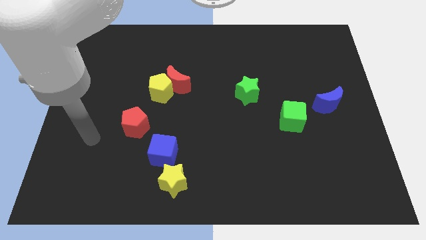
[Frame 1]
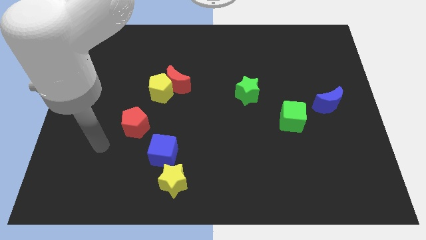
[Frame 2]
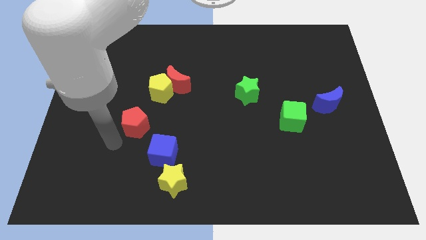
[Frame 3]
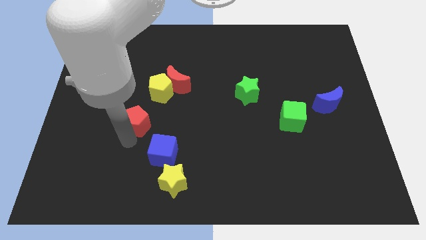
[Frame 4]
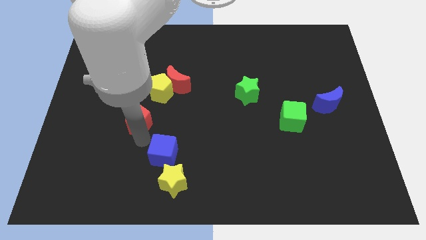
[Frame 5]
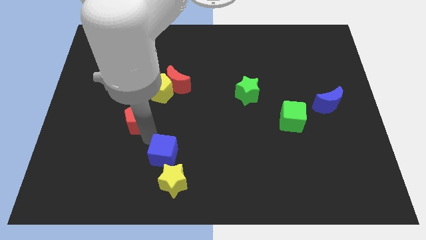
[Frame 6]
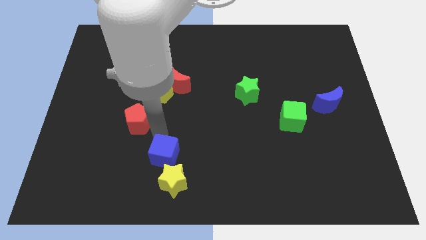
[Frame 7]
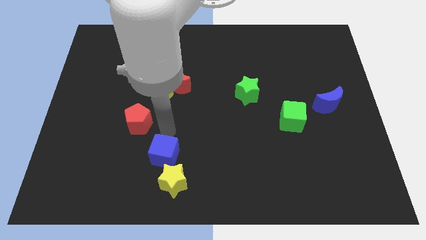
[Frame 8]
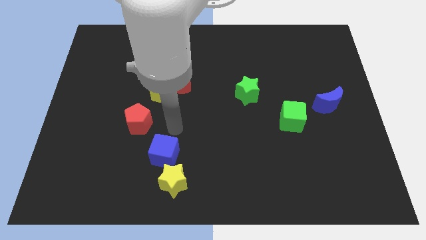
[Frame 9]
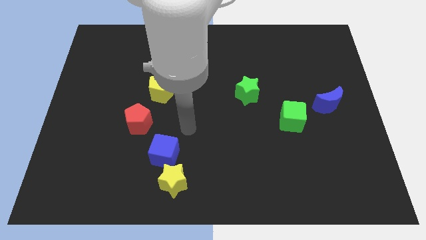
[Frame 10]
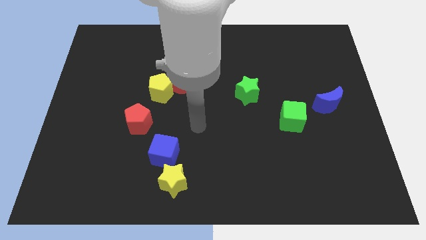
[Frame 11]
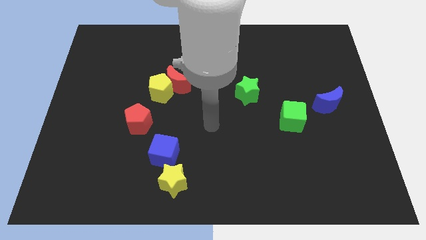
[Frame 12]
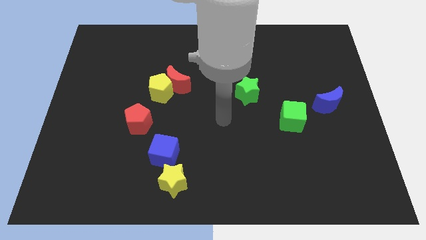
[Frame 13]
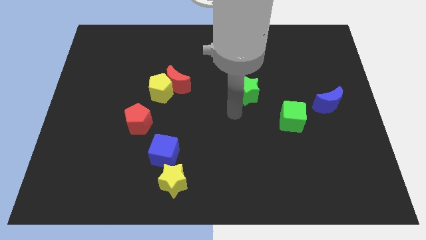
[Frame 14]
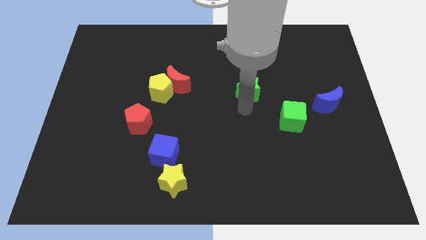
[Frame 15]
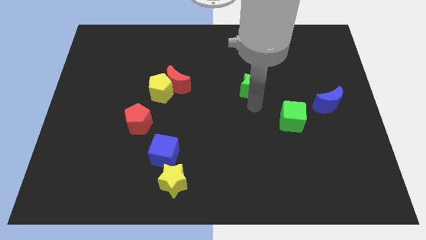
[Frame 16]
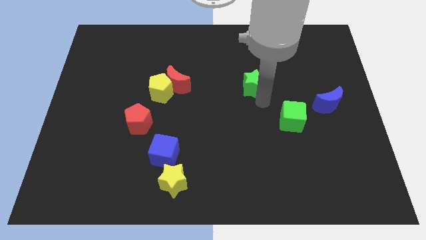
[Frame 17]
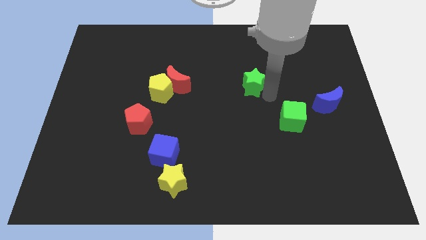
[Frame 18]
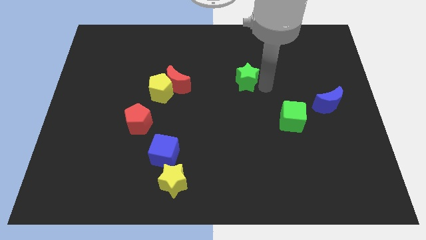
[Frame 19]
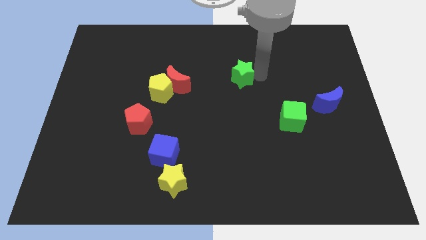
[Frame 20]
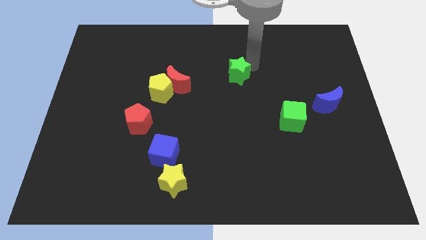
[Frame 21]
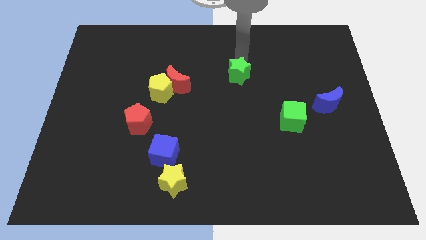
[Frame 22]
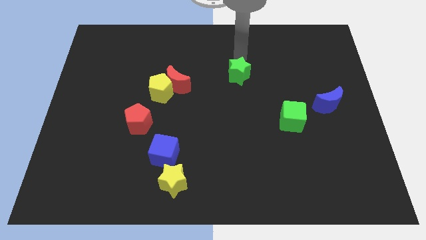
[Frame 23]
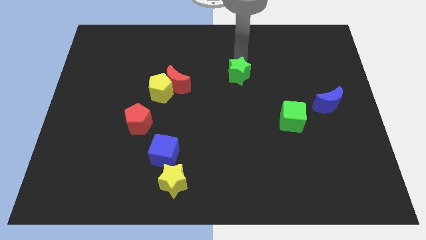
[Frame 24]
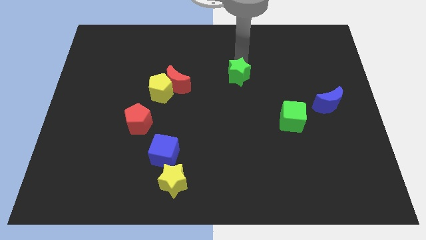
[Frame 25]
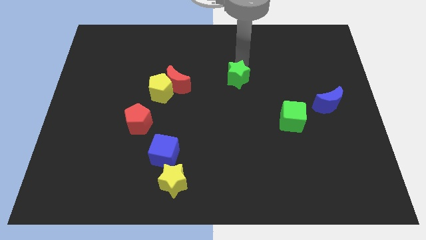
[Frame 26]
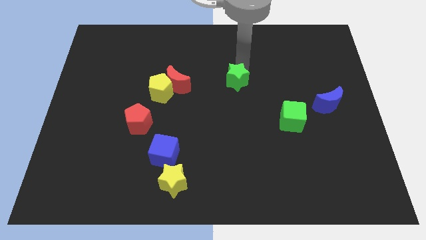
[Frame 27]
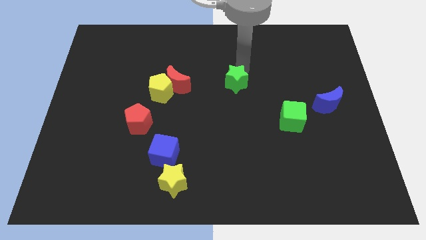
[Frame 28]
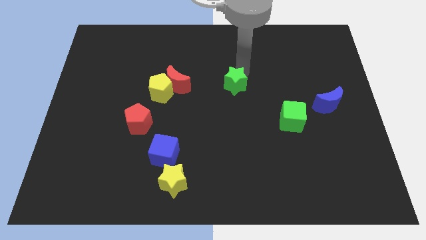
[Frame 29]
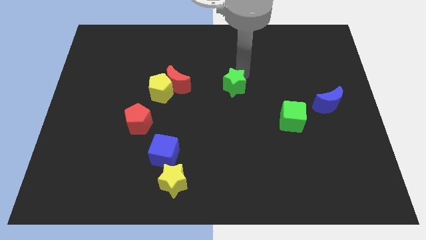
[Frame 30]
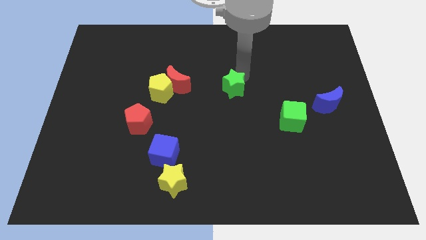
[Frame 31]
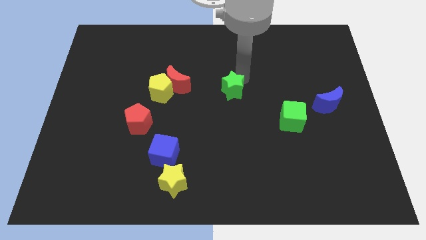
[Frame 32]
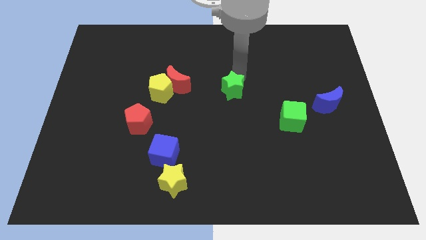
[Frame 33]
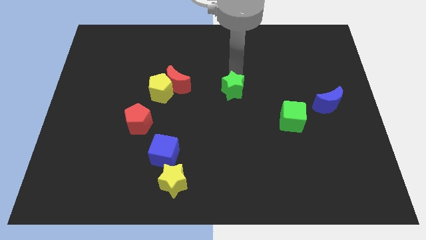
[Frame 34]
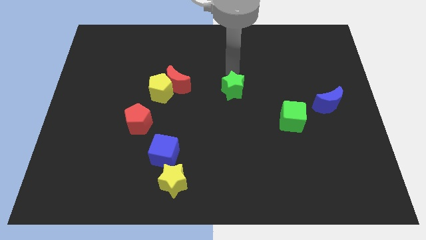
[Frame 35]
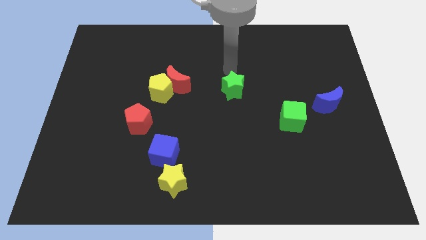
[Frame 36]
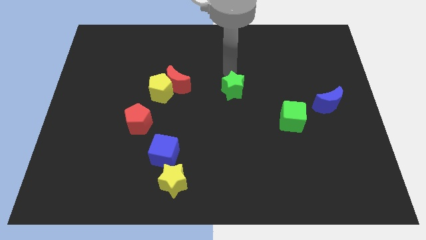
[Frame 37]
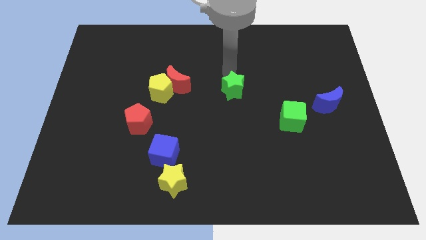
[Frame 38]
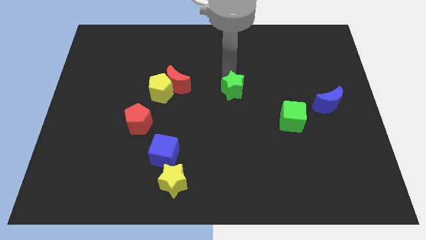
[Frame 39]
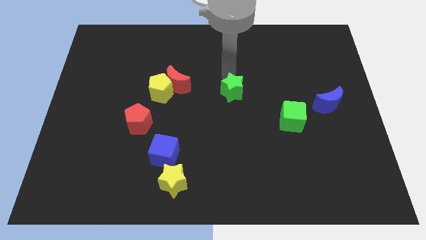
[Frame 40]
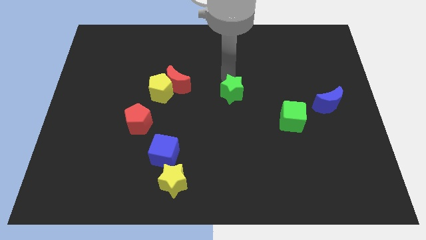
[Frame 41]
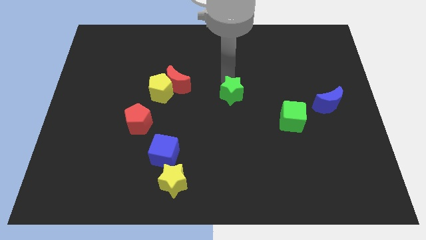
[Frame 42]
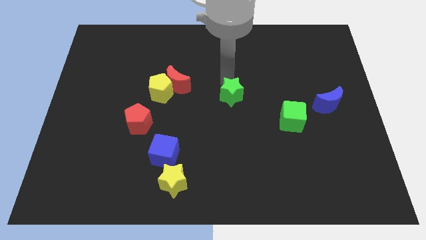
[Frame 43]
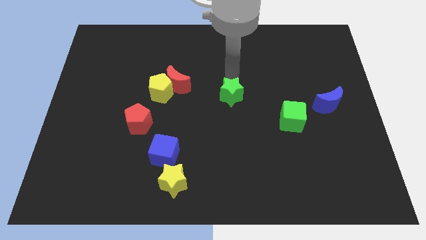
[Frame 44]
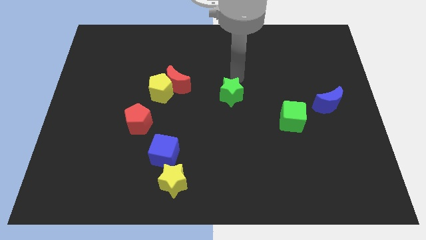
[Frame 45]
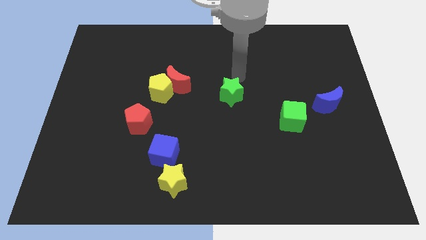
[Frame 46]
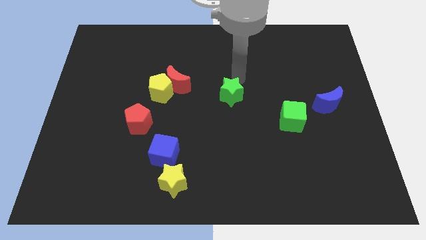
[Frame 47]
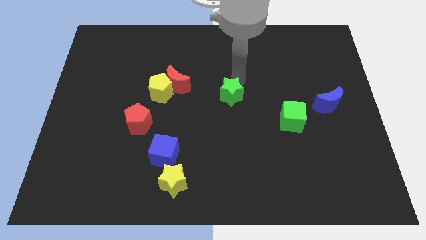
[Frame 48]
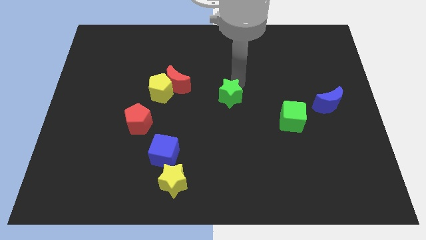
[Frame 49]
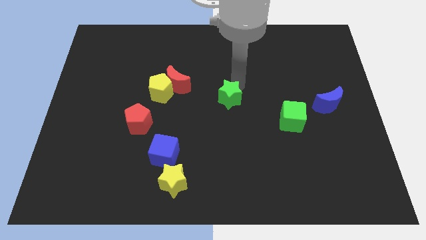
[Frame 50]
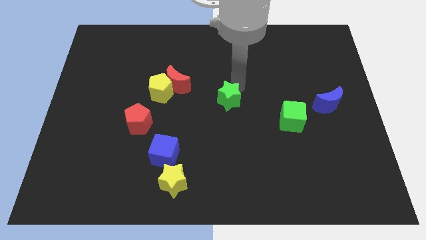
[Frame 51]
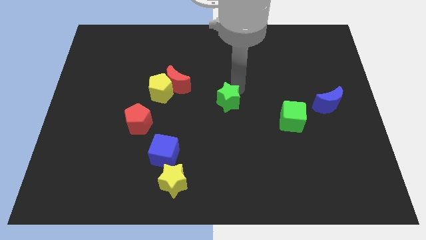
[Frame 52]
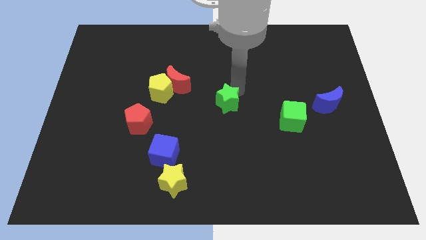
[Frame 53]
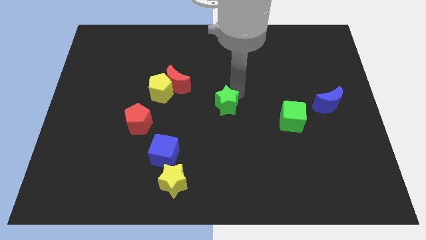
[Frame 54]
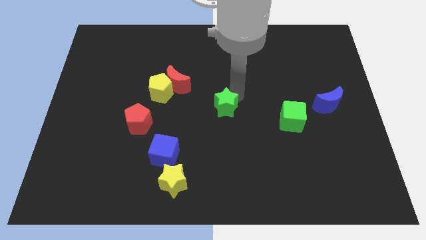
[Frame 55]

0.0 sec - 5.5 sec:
push the green star down and to the left a little

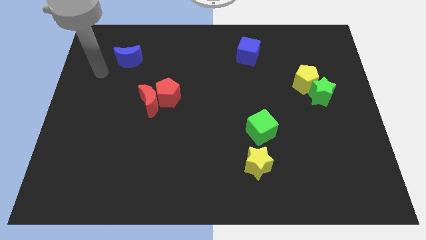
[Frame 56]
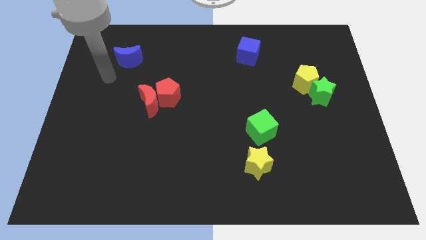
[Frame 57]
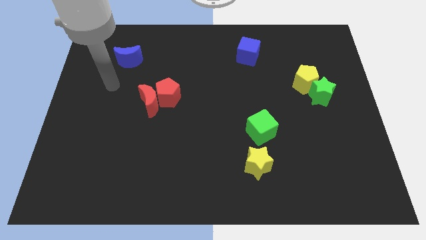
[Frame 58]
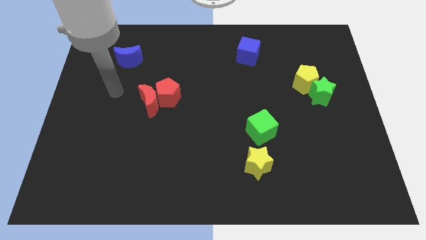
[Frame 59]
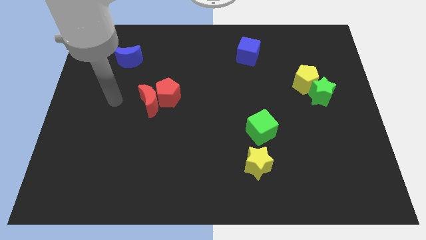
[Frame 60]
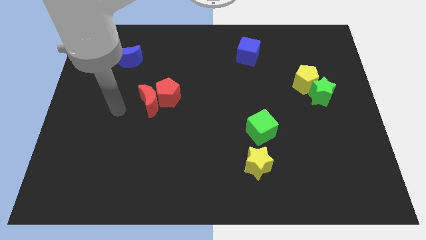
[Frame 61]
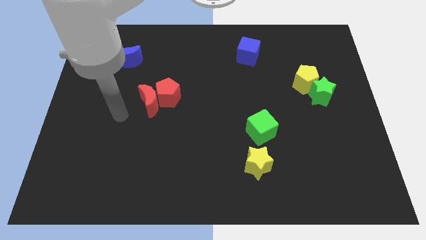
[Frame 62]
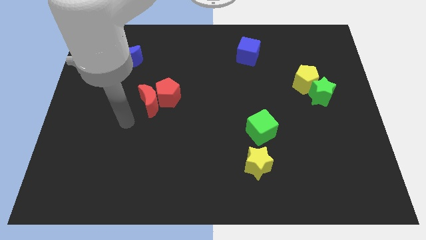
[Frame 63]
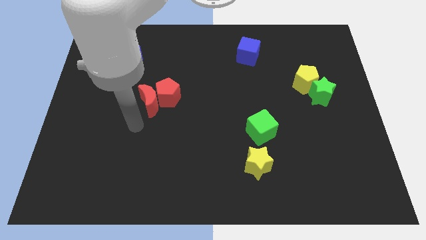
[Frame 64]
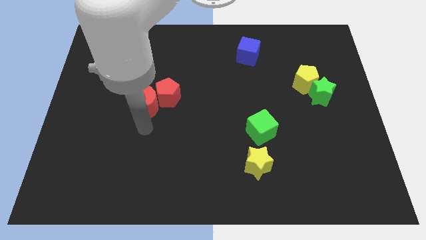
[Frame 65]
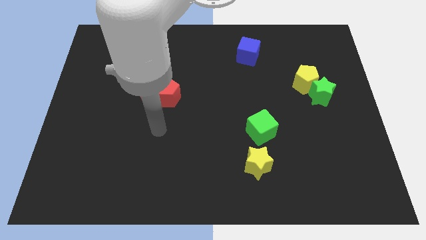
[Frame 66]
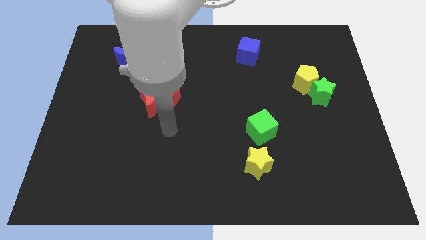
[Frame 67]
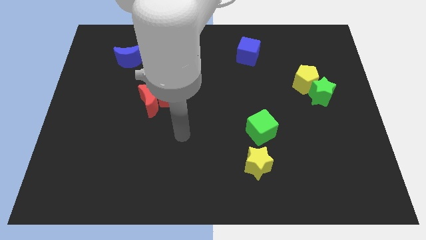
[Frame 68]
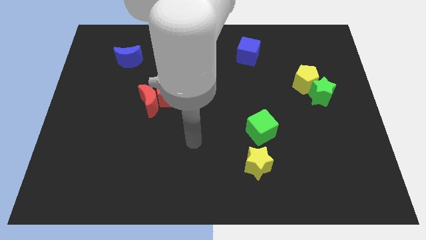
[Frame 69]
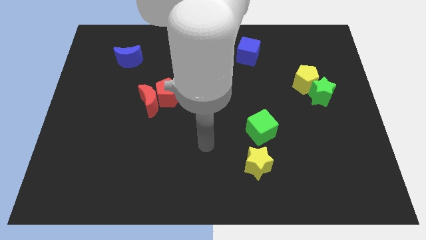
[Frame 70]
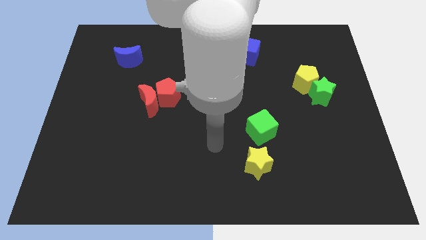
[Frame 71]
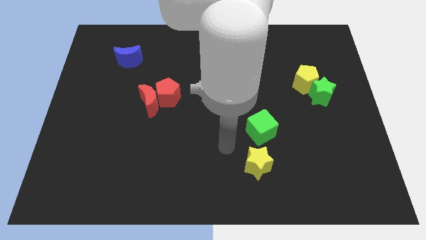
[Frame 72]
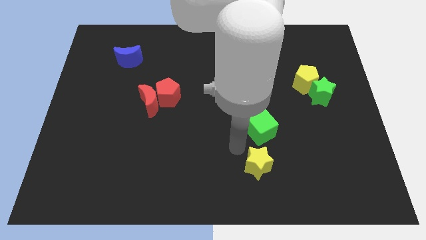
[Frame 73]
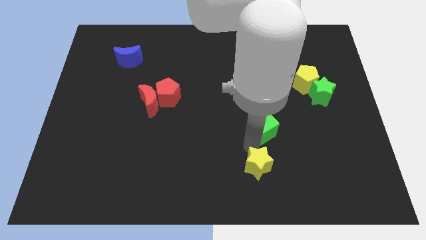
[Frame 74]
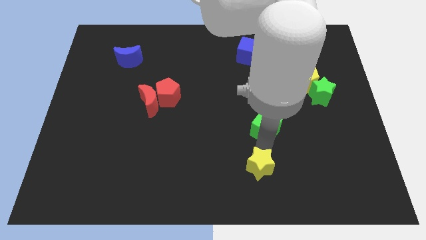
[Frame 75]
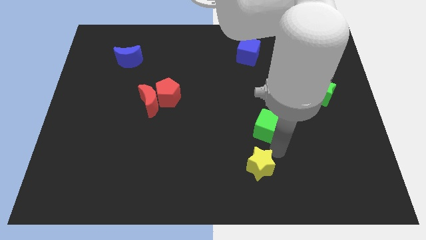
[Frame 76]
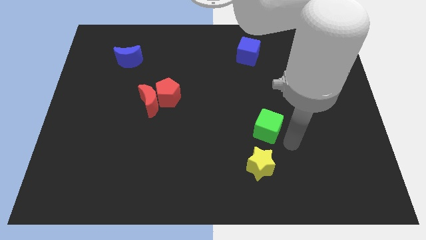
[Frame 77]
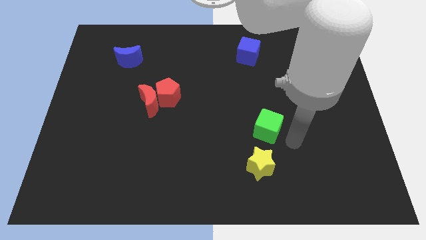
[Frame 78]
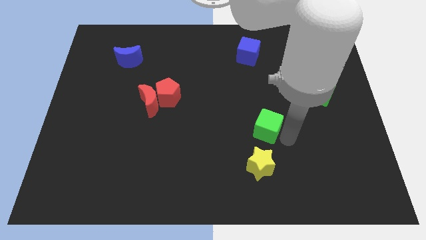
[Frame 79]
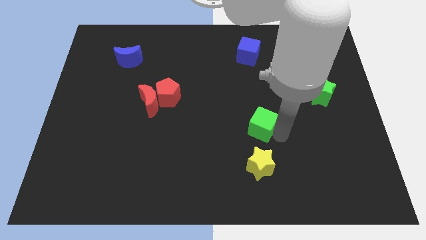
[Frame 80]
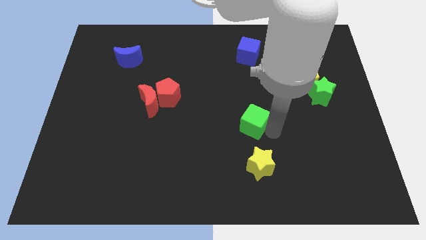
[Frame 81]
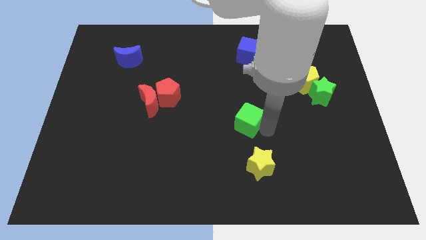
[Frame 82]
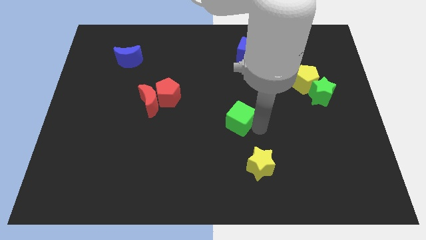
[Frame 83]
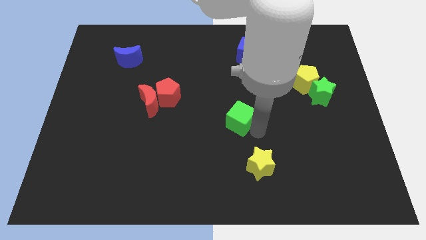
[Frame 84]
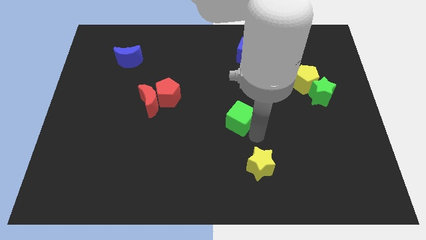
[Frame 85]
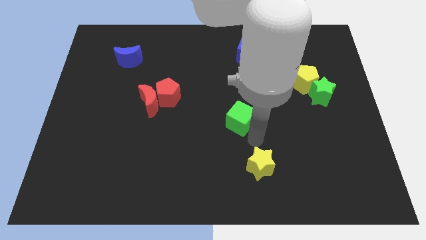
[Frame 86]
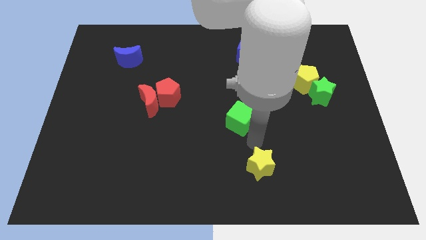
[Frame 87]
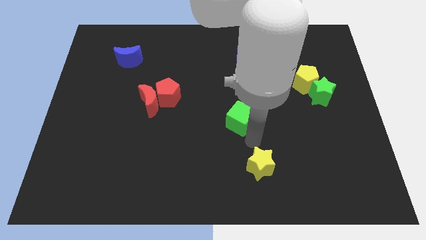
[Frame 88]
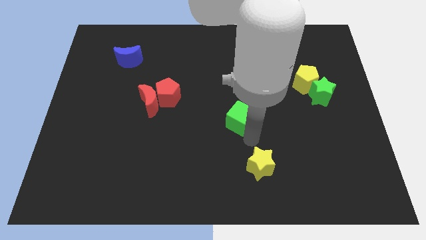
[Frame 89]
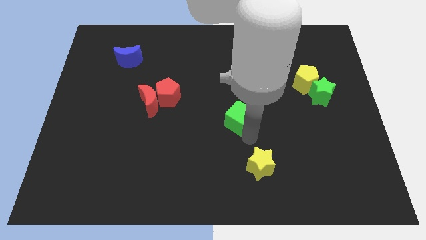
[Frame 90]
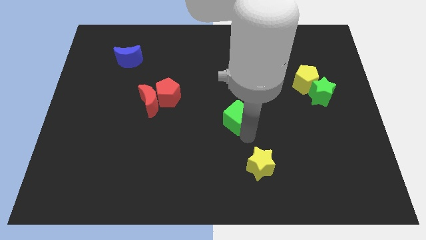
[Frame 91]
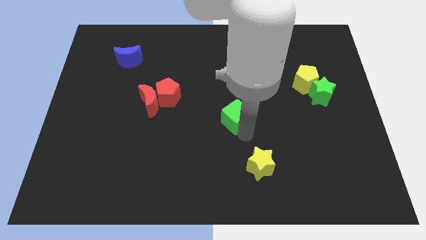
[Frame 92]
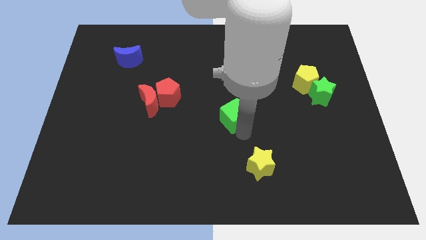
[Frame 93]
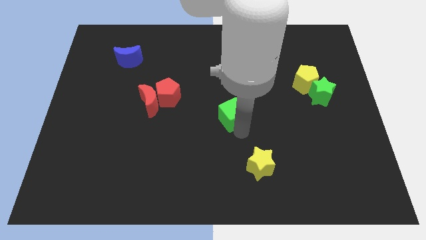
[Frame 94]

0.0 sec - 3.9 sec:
slightly push the green cube diagonally up and left
